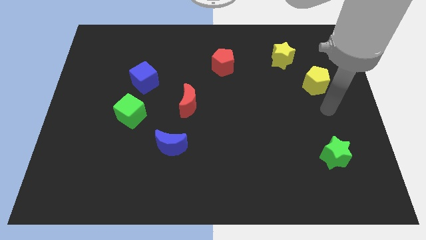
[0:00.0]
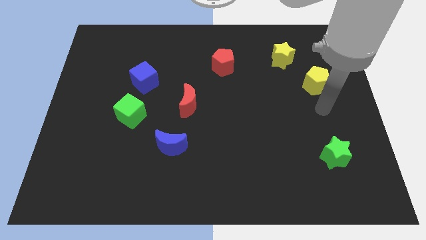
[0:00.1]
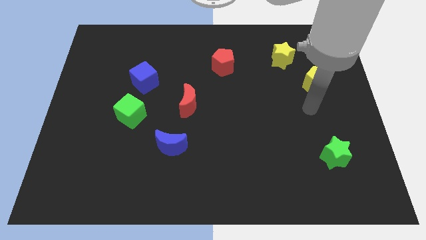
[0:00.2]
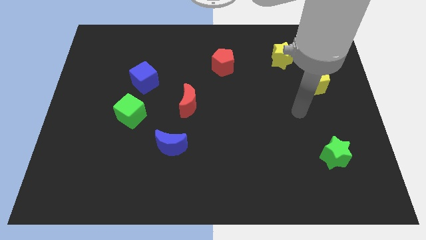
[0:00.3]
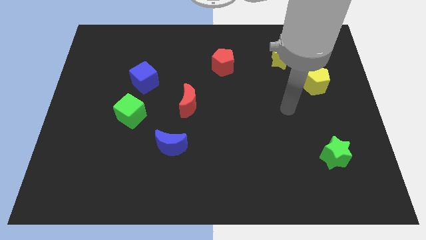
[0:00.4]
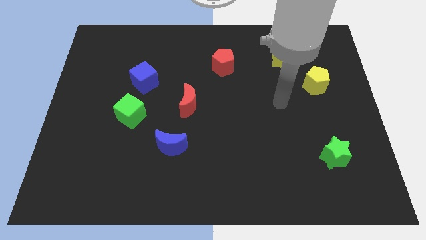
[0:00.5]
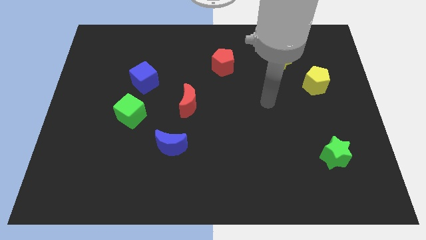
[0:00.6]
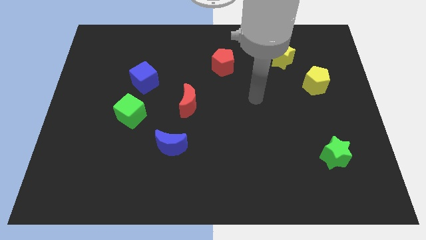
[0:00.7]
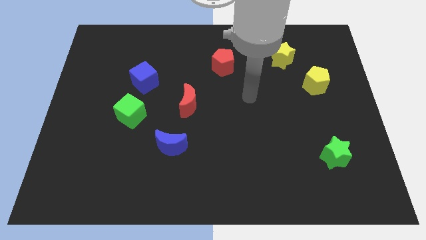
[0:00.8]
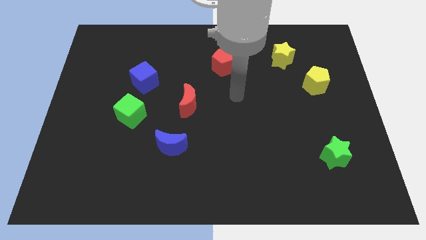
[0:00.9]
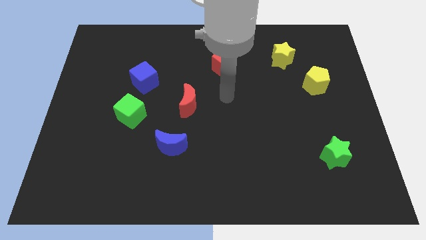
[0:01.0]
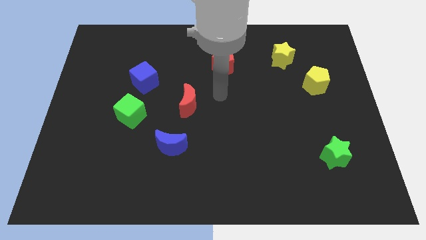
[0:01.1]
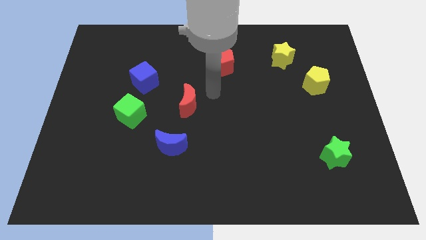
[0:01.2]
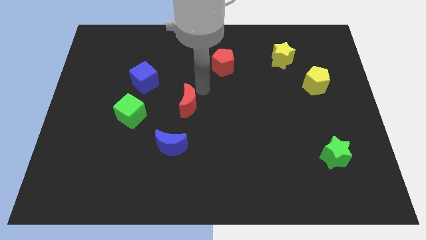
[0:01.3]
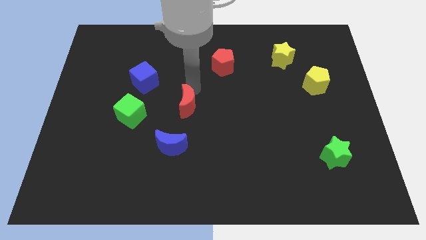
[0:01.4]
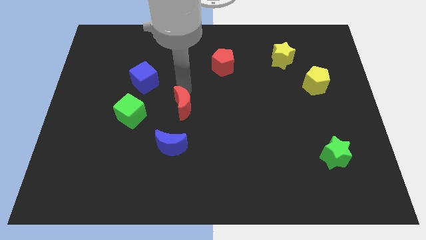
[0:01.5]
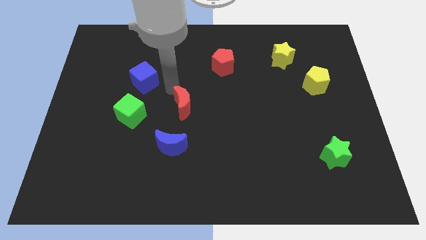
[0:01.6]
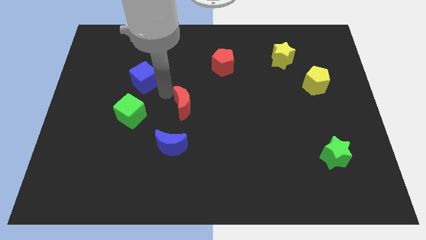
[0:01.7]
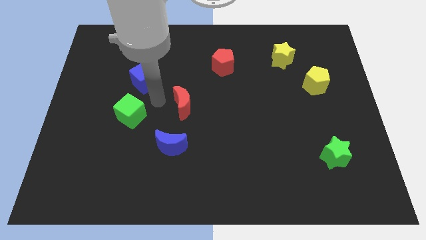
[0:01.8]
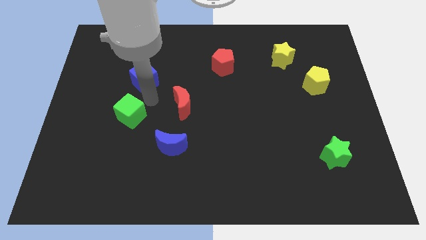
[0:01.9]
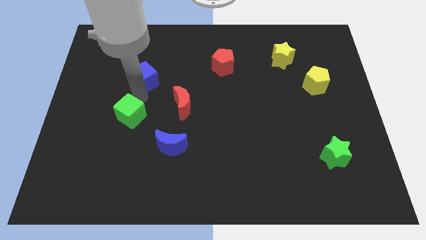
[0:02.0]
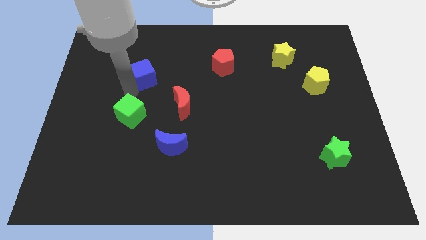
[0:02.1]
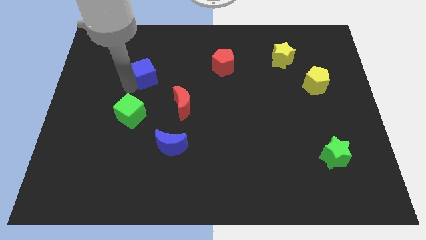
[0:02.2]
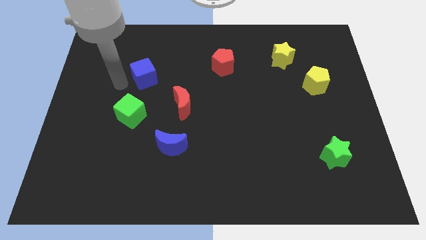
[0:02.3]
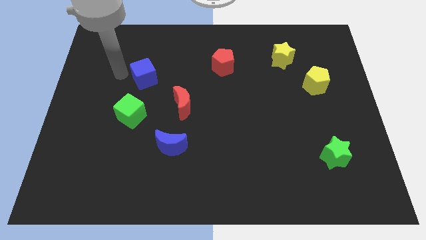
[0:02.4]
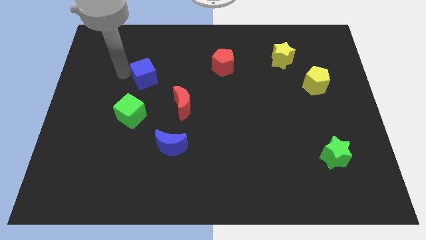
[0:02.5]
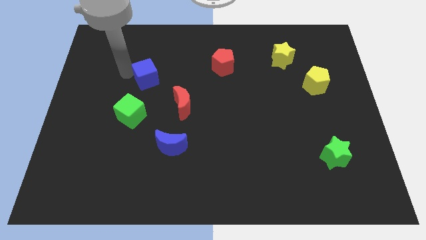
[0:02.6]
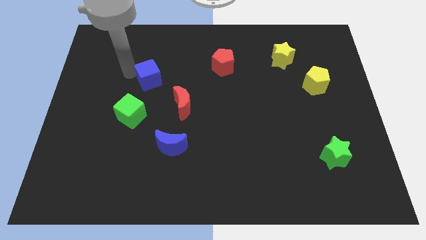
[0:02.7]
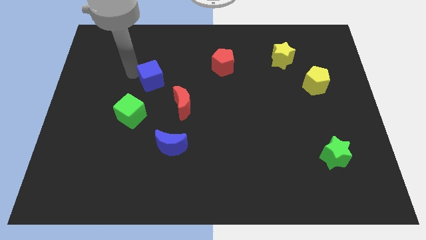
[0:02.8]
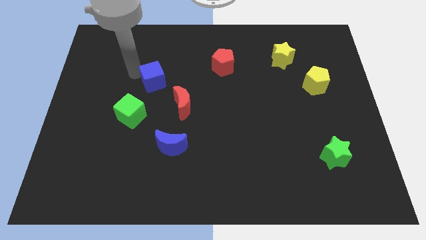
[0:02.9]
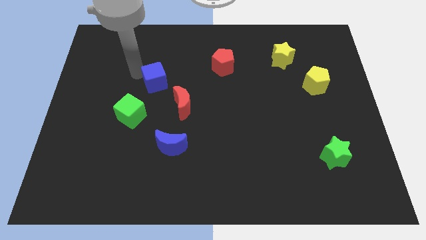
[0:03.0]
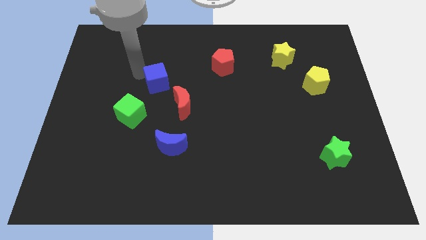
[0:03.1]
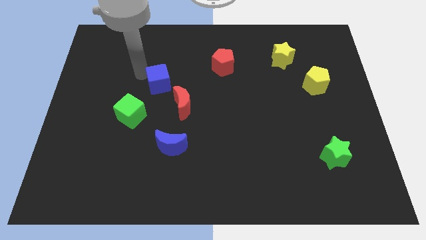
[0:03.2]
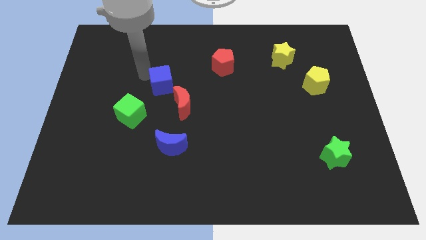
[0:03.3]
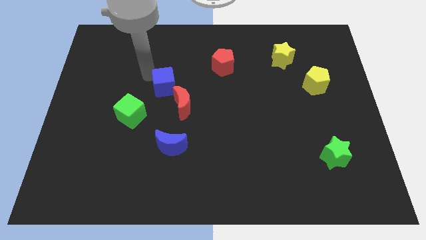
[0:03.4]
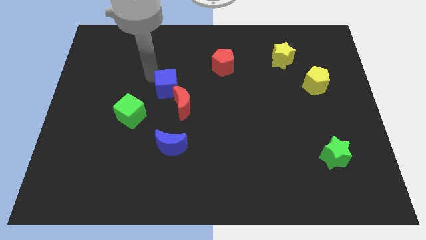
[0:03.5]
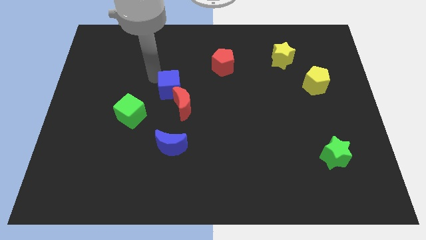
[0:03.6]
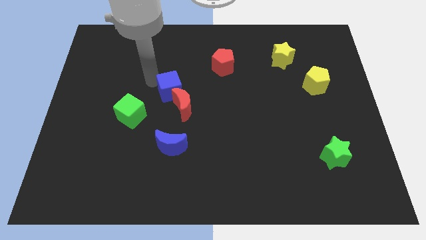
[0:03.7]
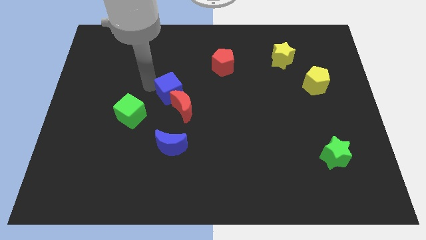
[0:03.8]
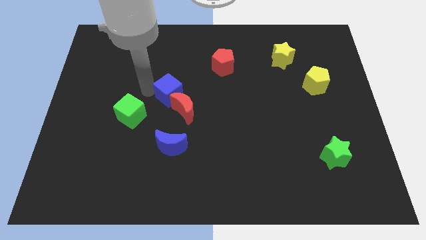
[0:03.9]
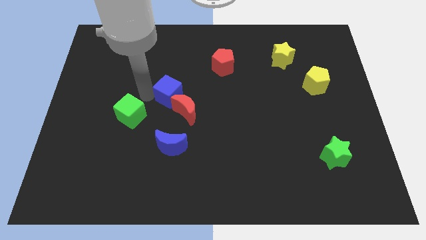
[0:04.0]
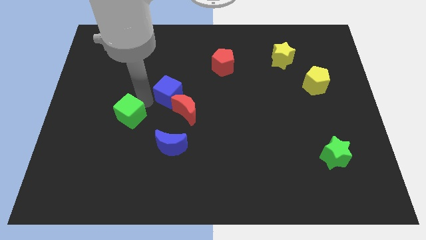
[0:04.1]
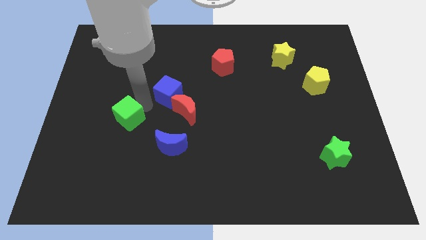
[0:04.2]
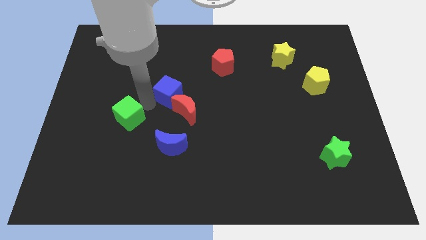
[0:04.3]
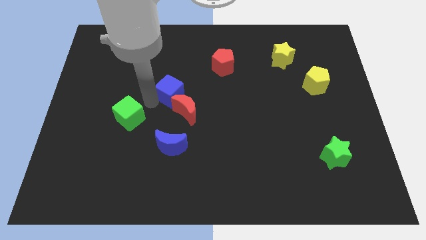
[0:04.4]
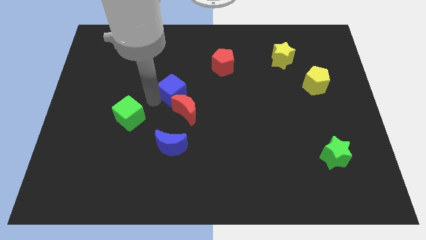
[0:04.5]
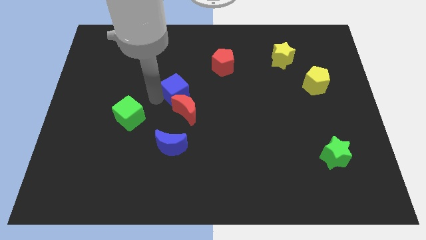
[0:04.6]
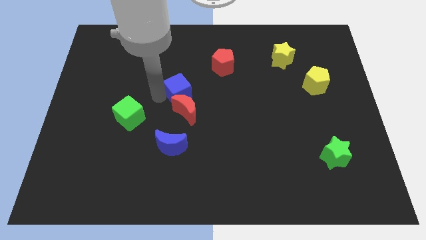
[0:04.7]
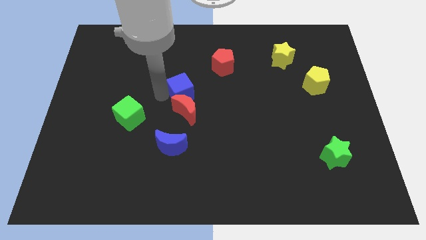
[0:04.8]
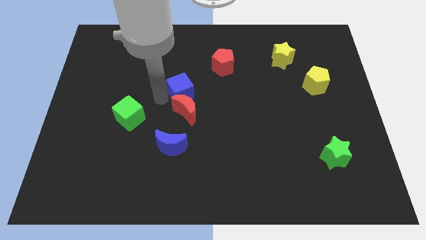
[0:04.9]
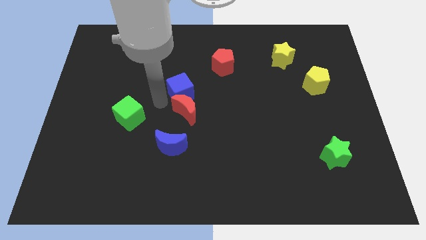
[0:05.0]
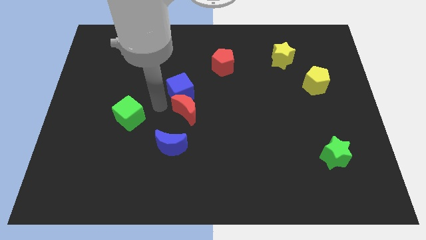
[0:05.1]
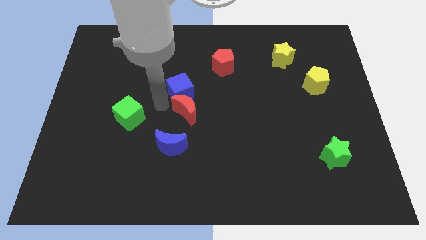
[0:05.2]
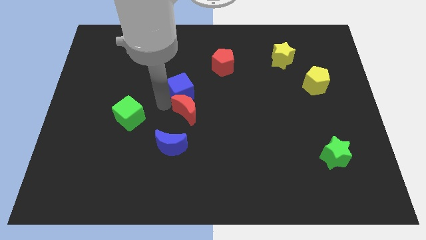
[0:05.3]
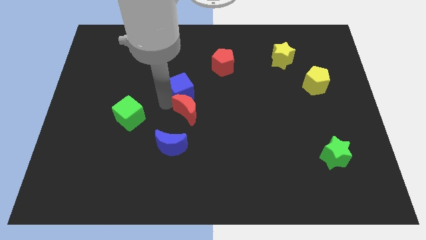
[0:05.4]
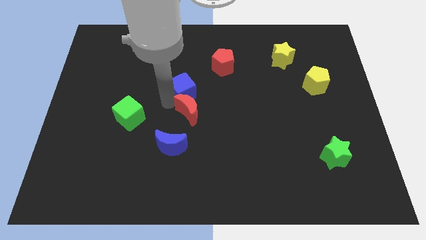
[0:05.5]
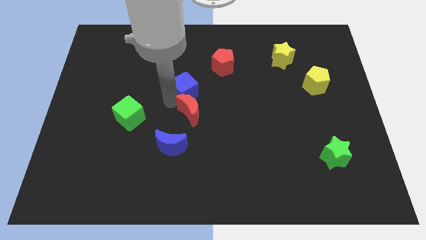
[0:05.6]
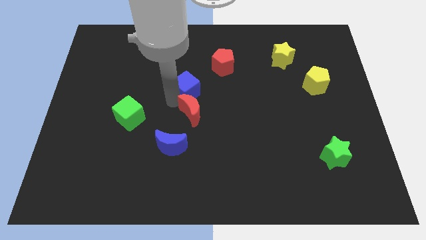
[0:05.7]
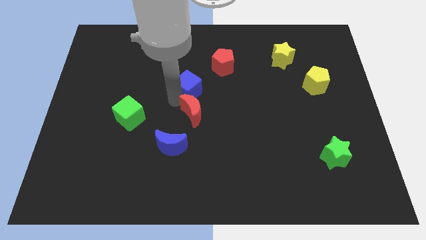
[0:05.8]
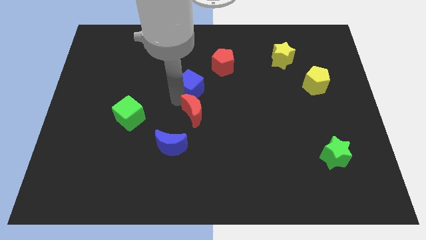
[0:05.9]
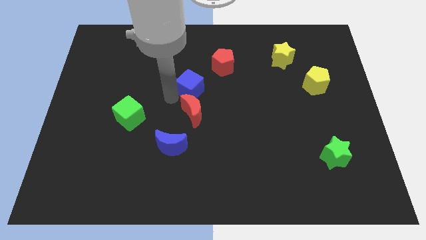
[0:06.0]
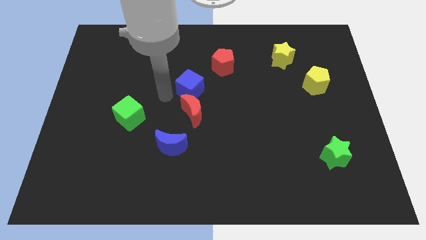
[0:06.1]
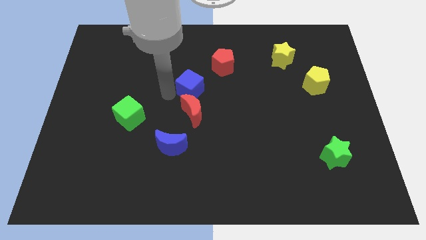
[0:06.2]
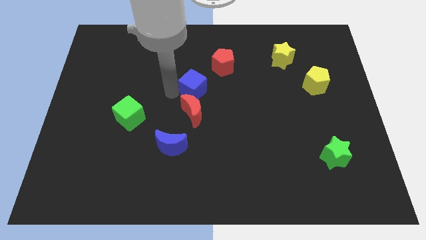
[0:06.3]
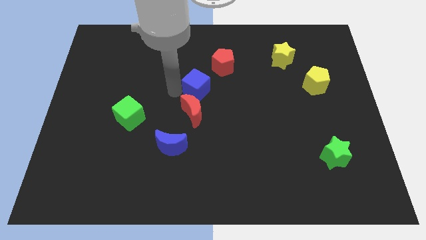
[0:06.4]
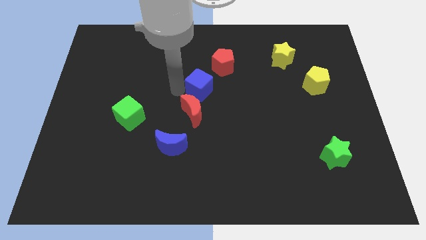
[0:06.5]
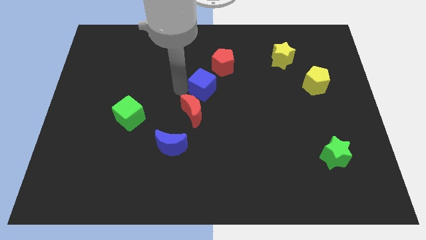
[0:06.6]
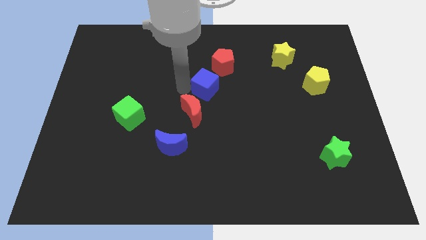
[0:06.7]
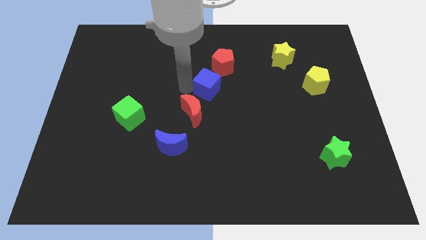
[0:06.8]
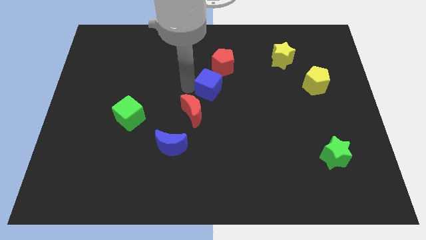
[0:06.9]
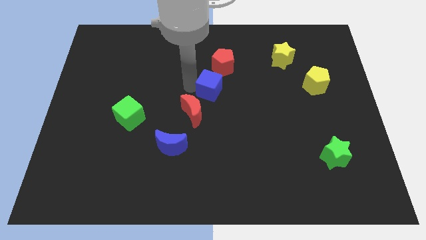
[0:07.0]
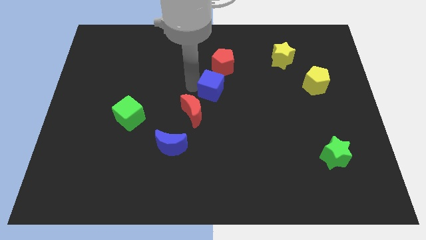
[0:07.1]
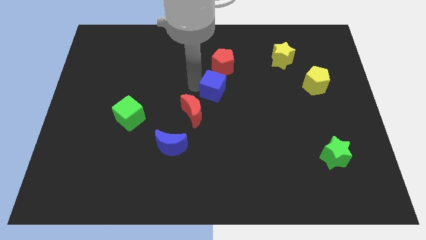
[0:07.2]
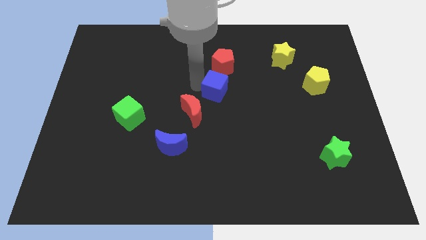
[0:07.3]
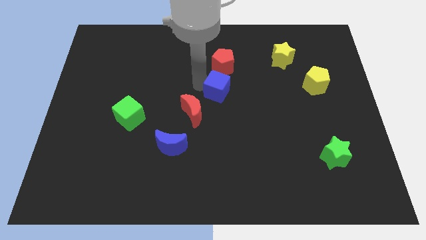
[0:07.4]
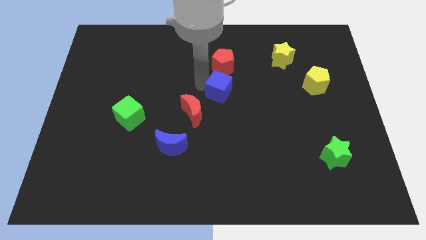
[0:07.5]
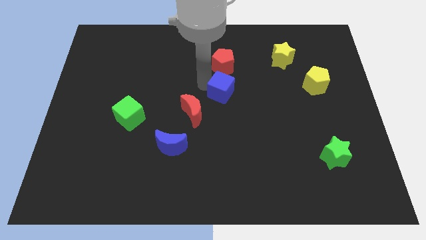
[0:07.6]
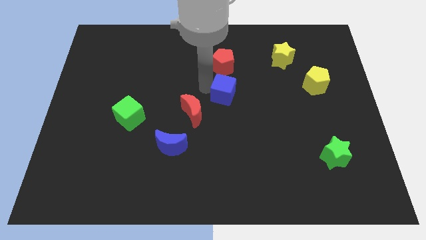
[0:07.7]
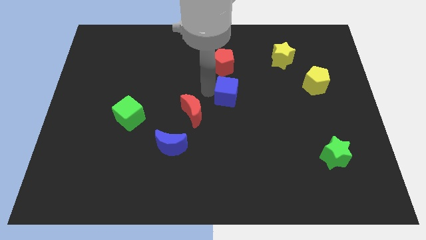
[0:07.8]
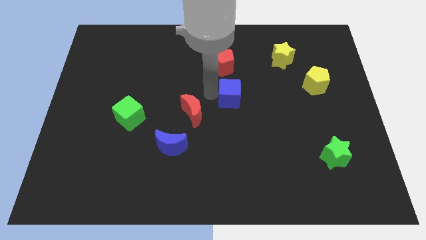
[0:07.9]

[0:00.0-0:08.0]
move the blue cube to the right

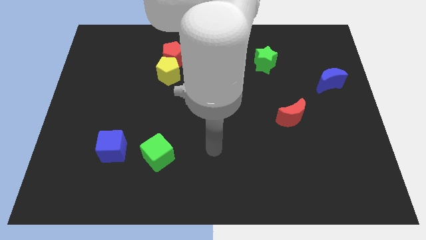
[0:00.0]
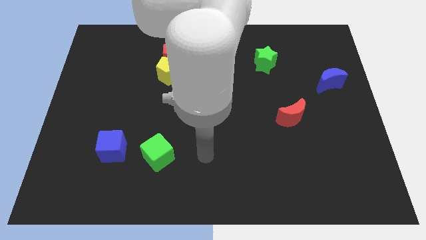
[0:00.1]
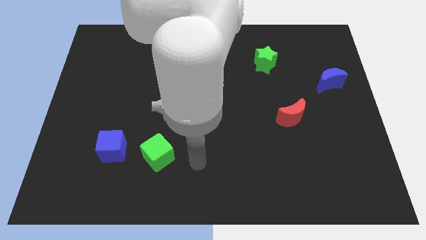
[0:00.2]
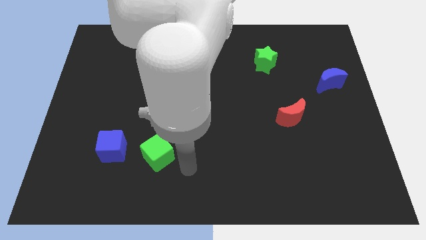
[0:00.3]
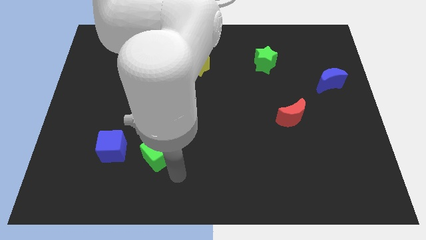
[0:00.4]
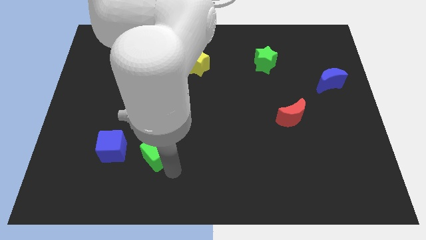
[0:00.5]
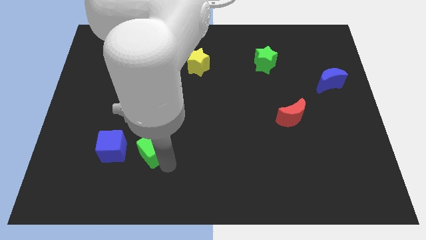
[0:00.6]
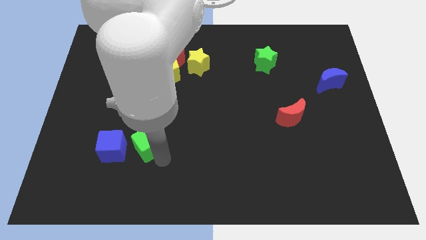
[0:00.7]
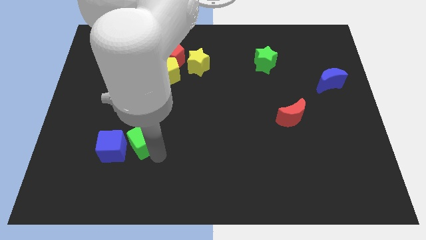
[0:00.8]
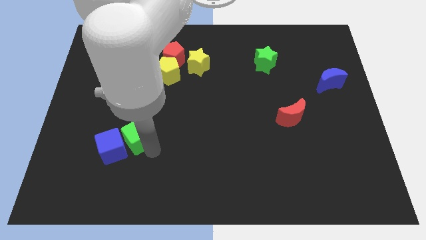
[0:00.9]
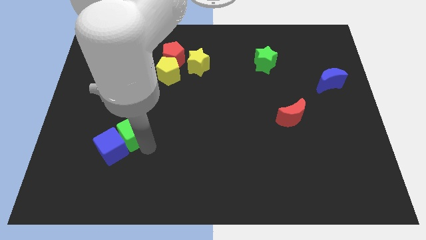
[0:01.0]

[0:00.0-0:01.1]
move the green cube upwards and then to the left a bit
